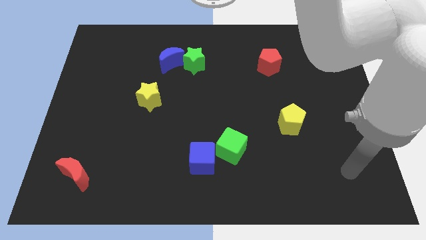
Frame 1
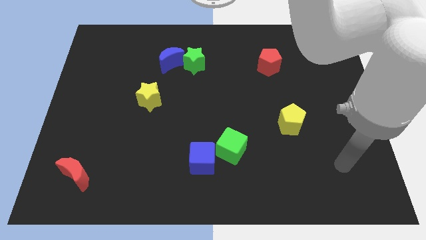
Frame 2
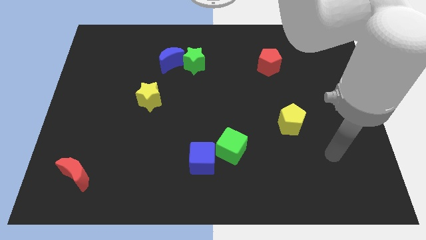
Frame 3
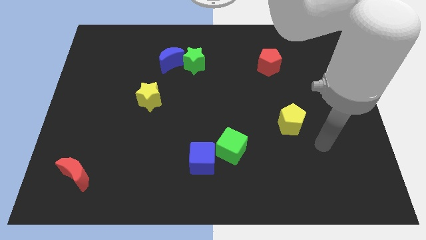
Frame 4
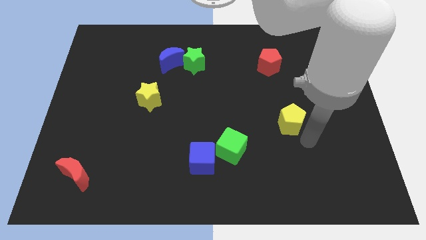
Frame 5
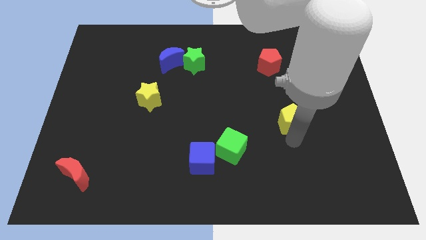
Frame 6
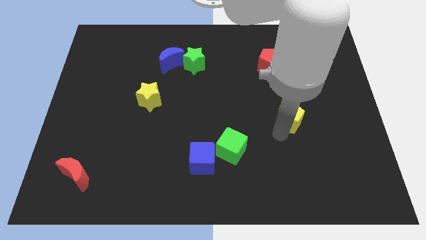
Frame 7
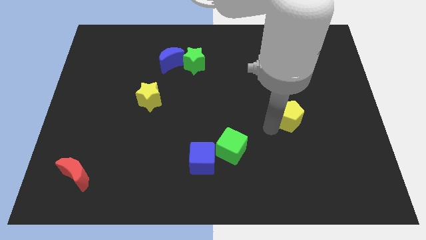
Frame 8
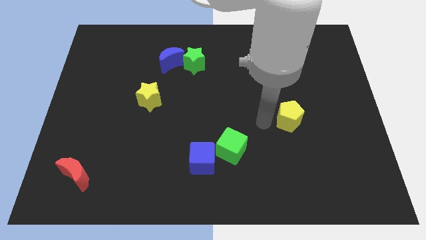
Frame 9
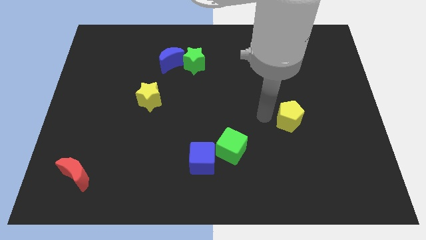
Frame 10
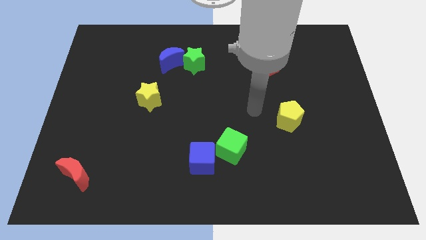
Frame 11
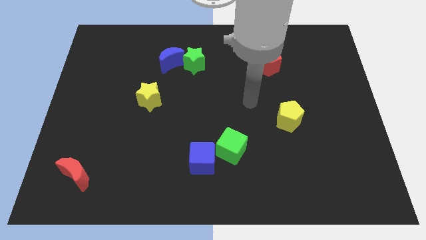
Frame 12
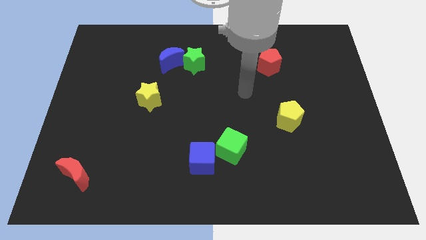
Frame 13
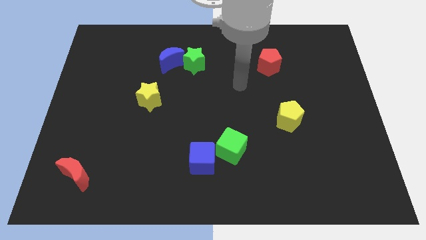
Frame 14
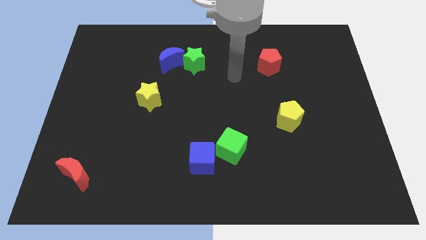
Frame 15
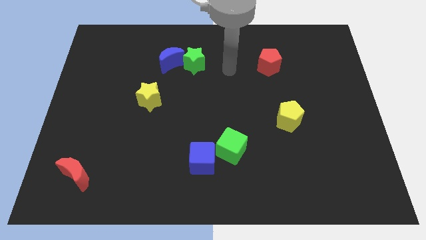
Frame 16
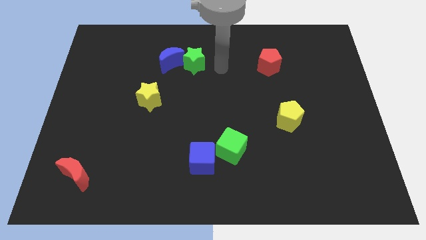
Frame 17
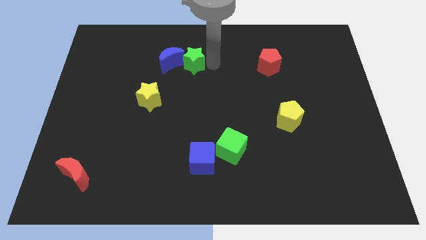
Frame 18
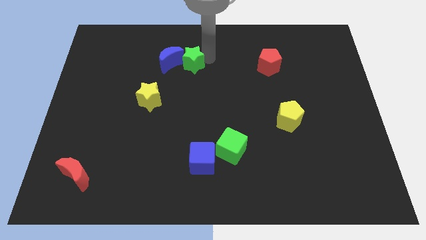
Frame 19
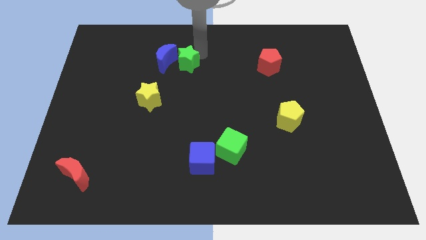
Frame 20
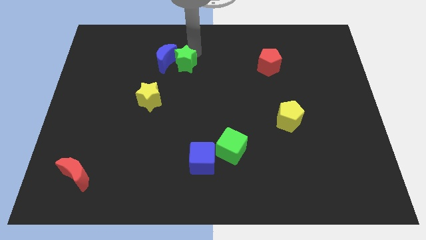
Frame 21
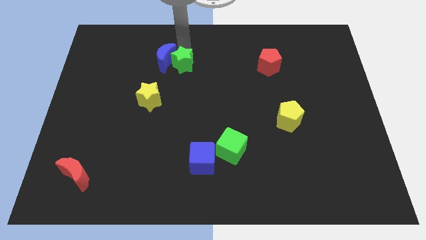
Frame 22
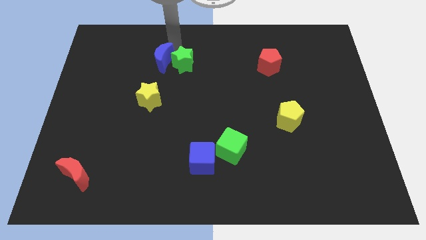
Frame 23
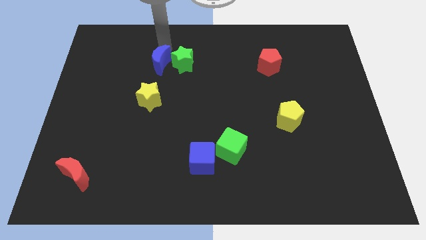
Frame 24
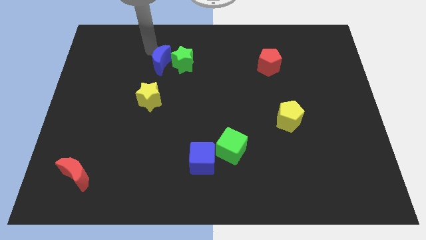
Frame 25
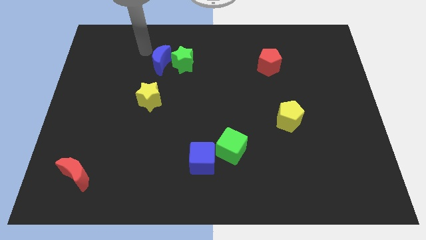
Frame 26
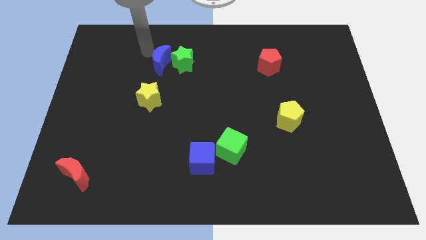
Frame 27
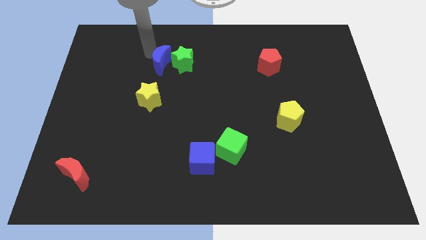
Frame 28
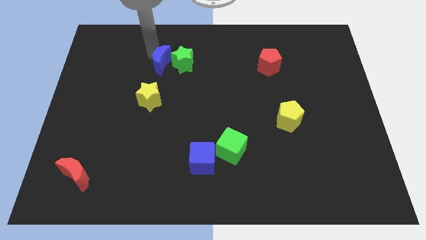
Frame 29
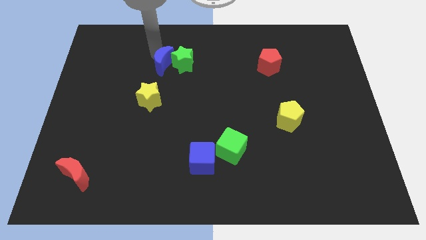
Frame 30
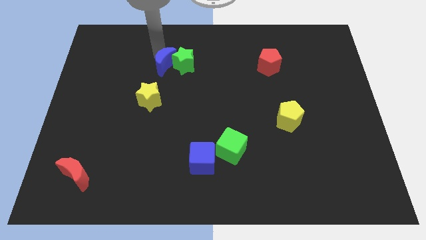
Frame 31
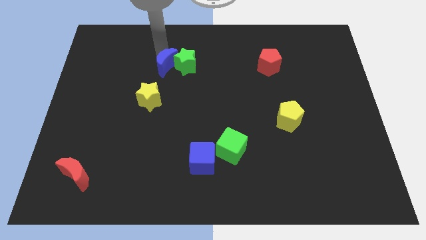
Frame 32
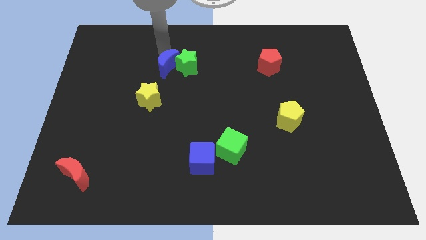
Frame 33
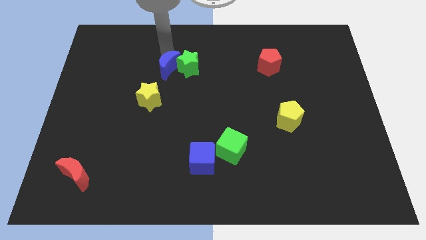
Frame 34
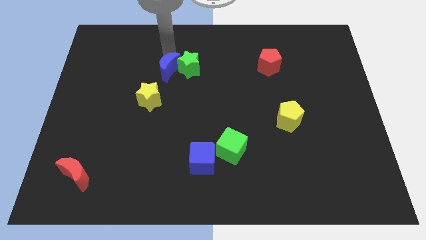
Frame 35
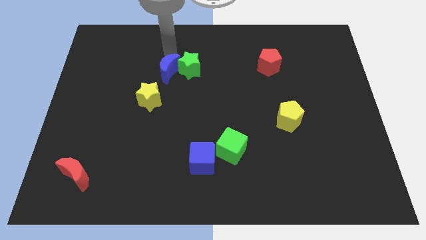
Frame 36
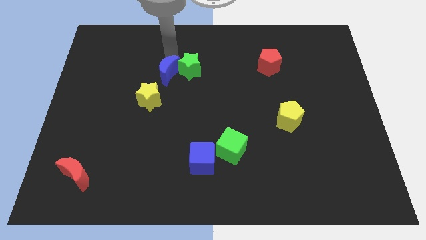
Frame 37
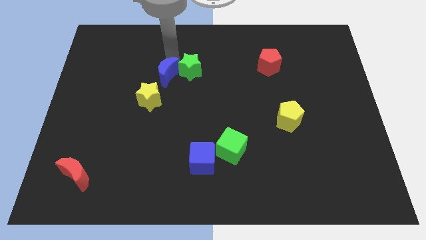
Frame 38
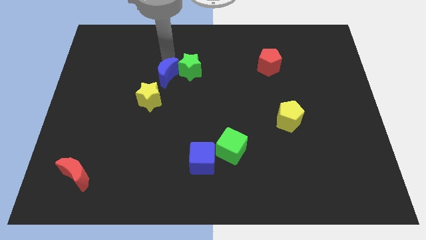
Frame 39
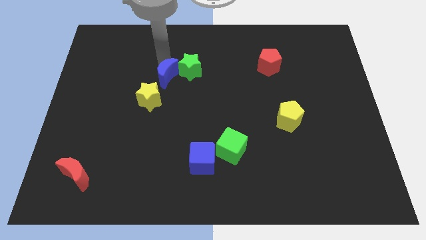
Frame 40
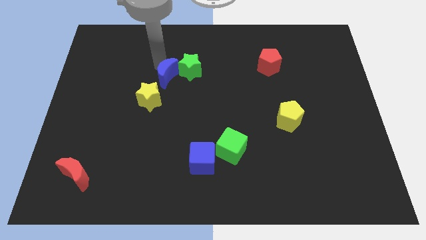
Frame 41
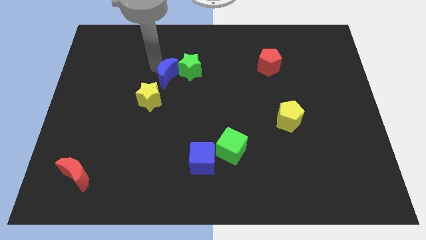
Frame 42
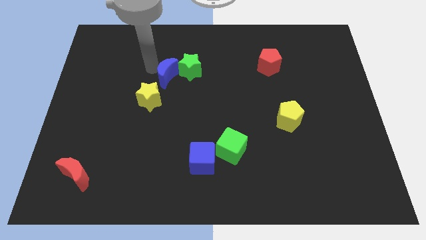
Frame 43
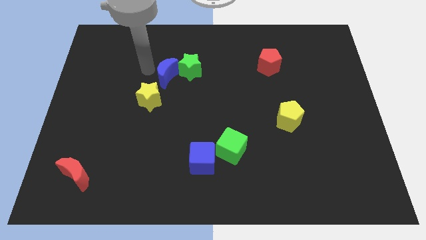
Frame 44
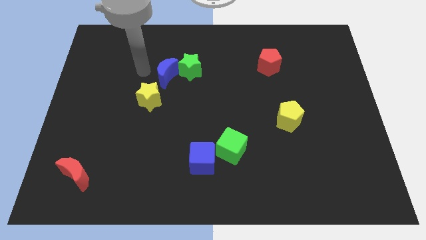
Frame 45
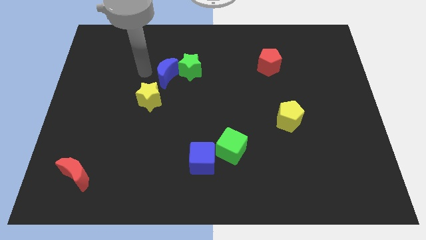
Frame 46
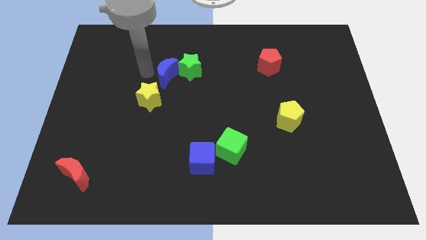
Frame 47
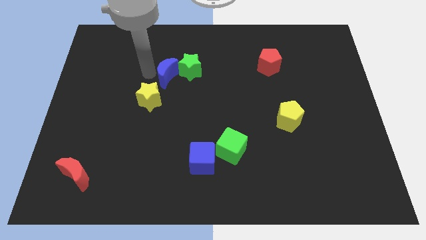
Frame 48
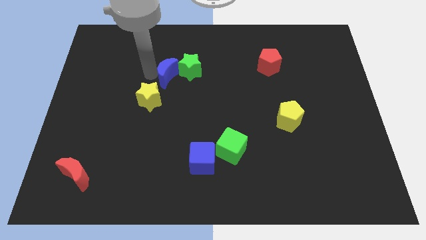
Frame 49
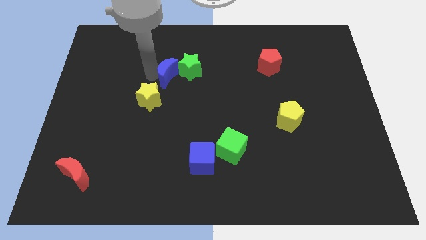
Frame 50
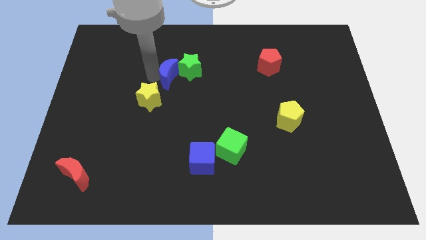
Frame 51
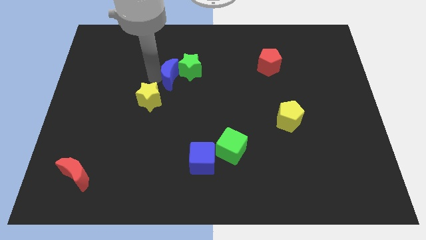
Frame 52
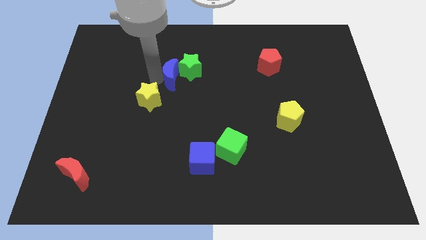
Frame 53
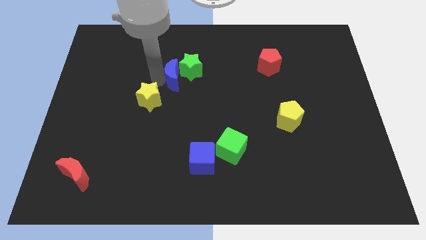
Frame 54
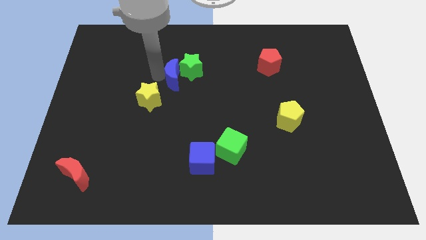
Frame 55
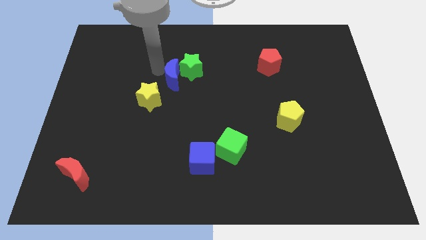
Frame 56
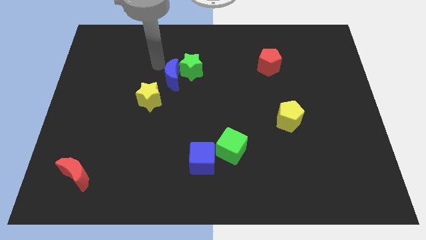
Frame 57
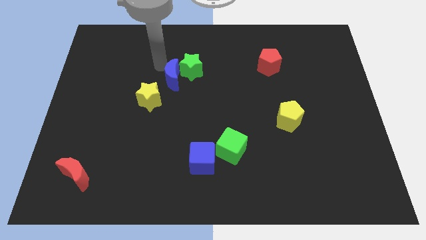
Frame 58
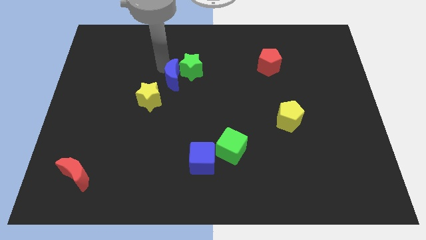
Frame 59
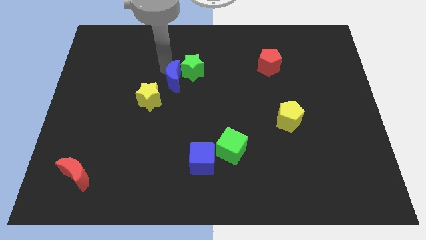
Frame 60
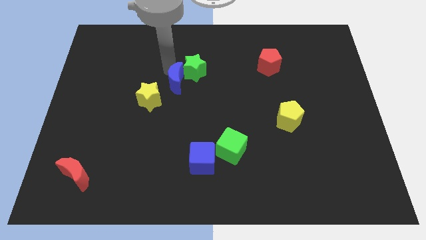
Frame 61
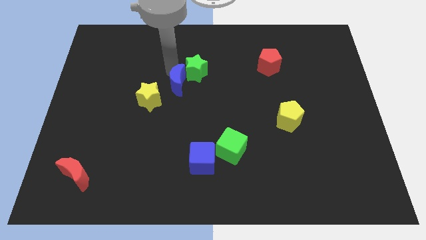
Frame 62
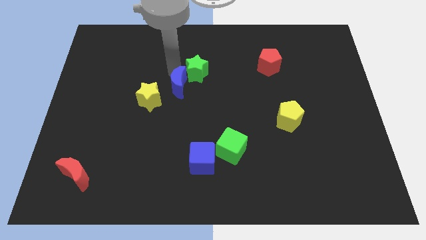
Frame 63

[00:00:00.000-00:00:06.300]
slide the blue moon to the right of the yellow star

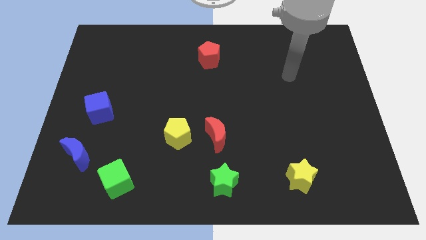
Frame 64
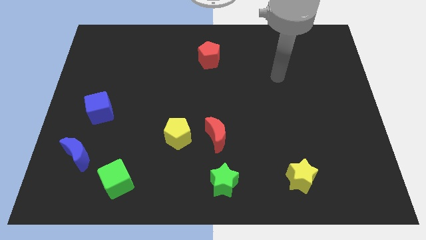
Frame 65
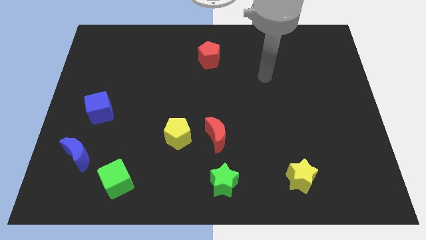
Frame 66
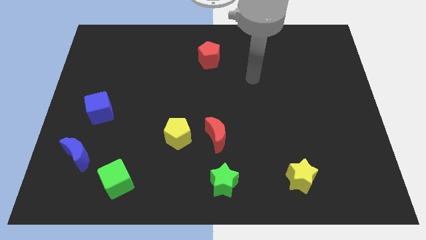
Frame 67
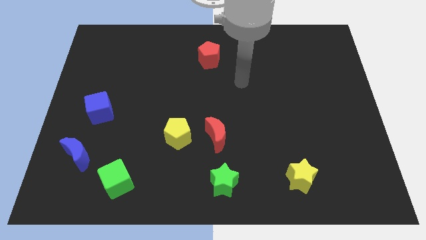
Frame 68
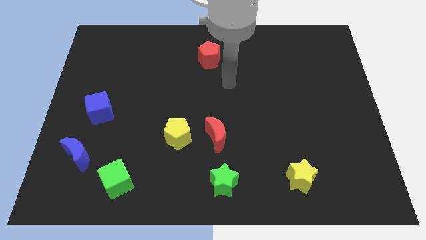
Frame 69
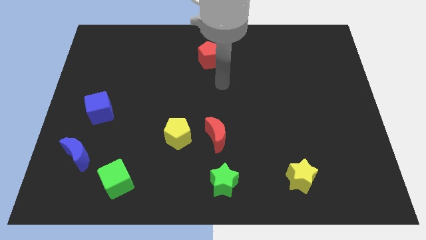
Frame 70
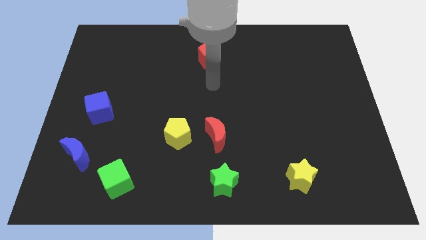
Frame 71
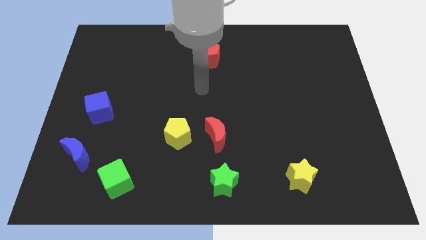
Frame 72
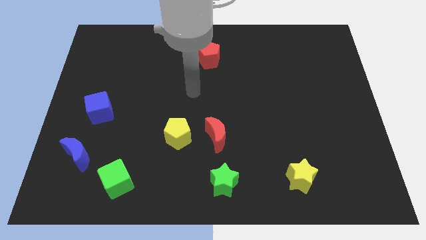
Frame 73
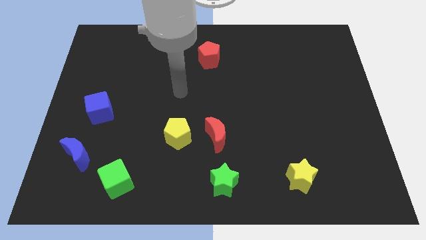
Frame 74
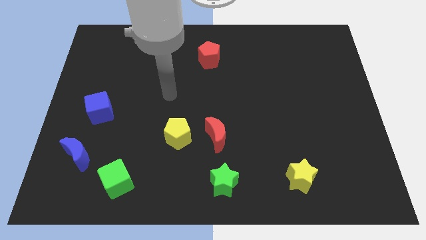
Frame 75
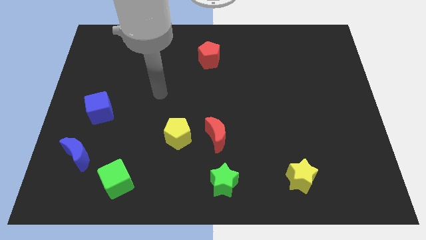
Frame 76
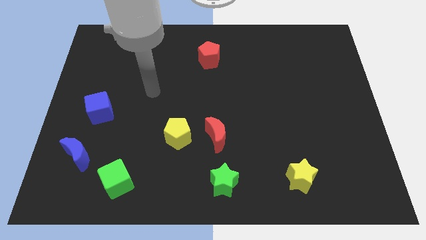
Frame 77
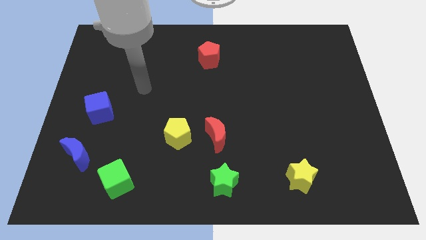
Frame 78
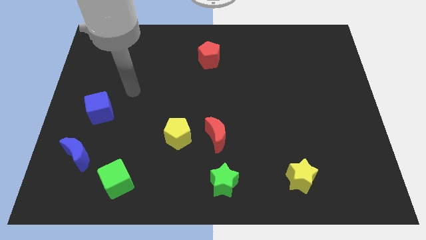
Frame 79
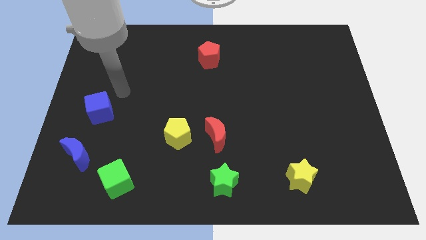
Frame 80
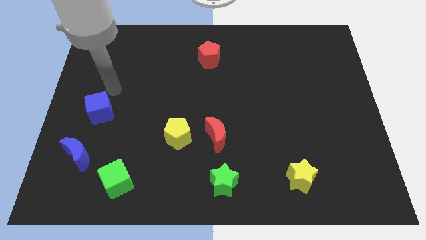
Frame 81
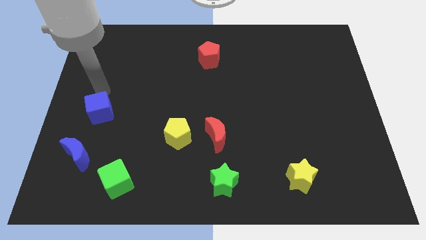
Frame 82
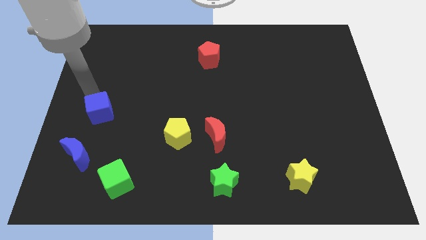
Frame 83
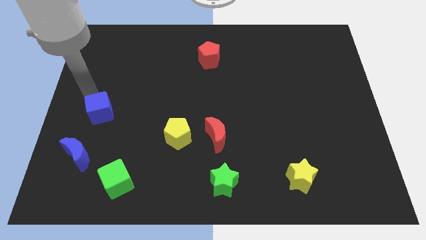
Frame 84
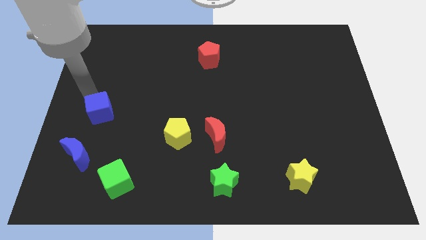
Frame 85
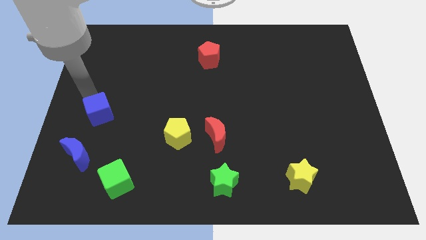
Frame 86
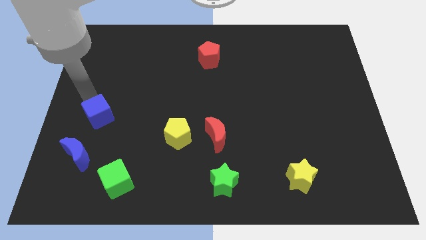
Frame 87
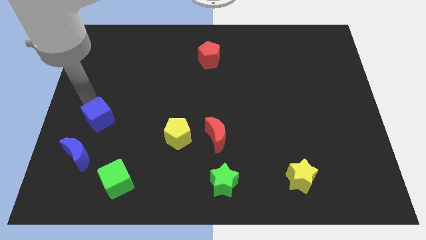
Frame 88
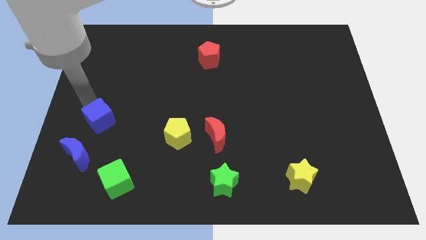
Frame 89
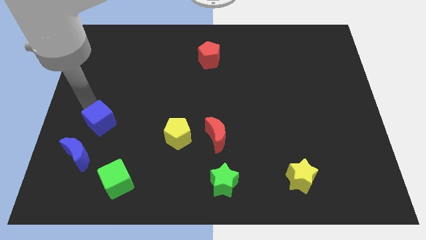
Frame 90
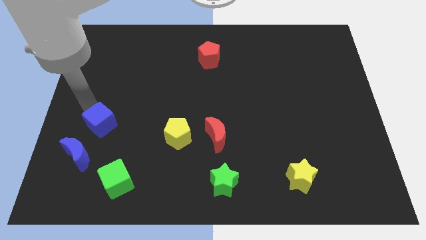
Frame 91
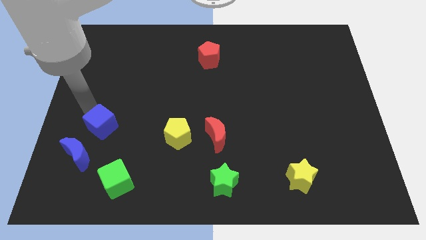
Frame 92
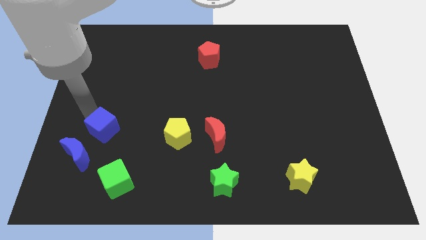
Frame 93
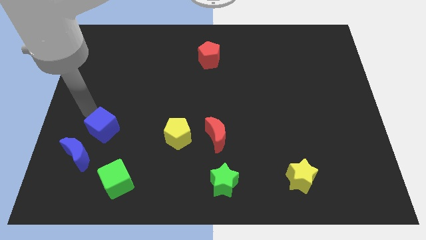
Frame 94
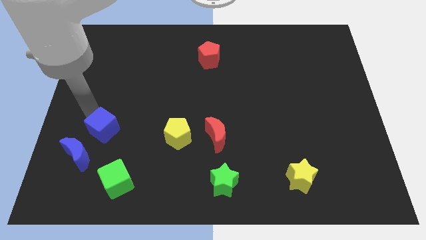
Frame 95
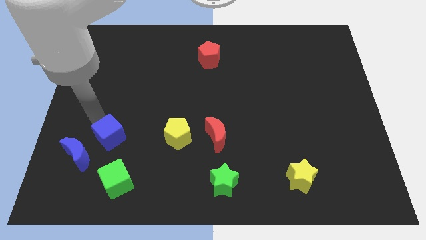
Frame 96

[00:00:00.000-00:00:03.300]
slide the blue cube right of the blue moon
